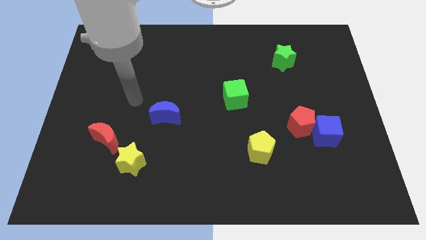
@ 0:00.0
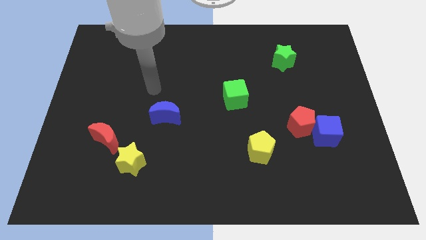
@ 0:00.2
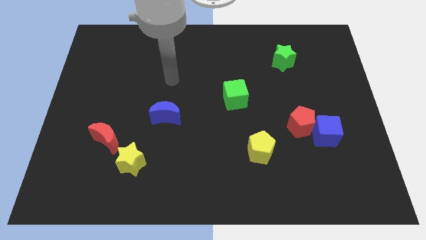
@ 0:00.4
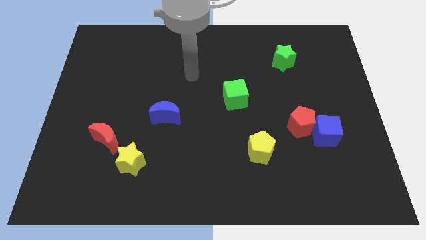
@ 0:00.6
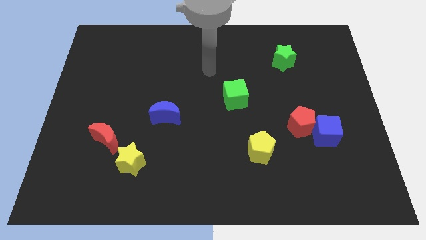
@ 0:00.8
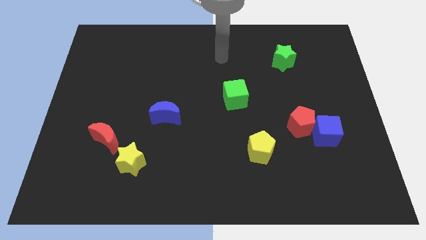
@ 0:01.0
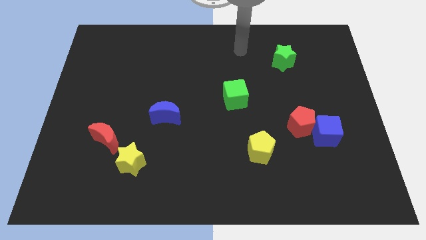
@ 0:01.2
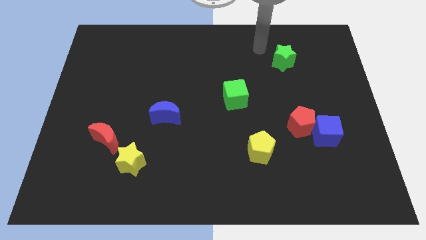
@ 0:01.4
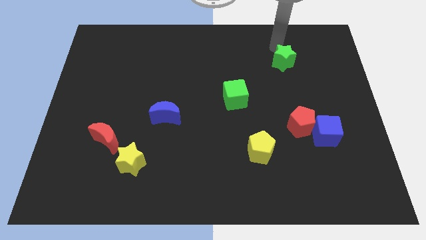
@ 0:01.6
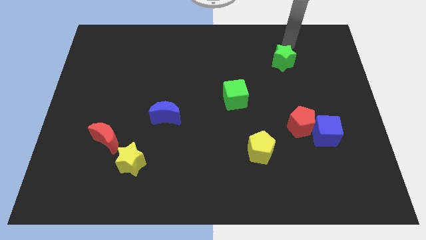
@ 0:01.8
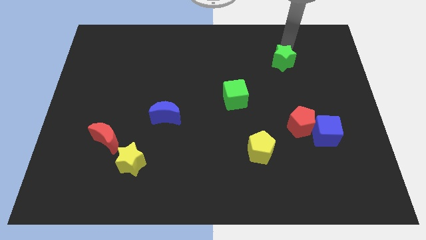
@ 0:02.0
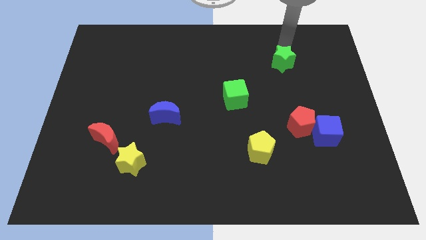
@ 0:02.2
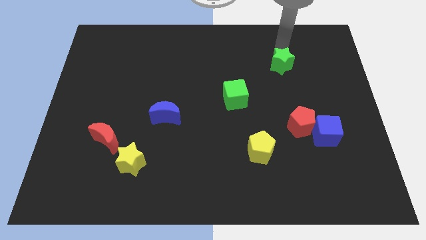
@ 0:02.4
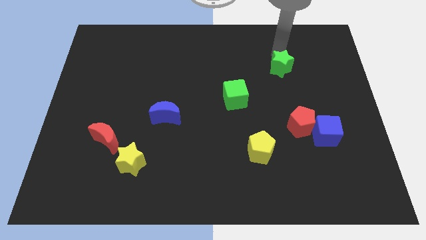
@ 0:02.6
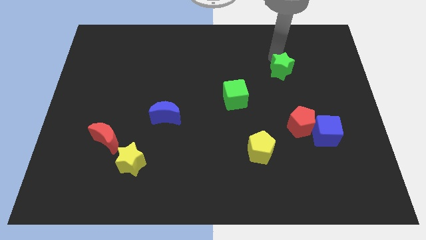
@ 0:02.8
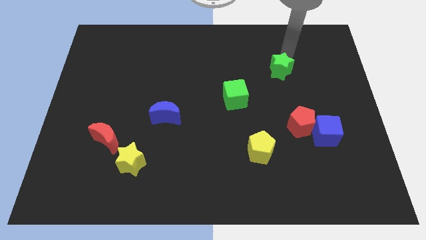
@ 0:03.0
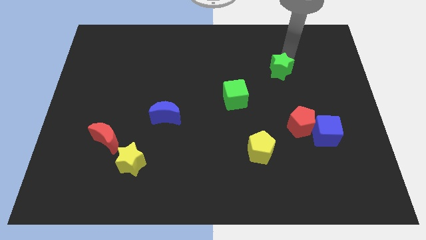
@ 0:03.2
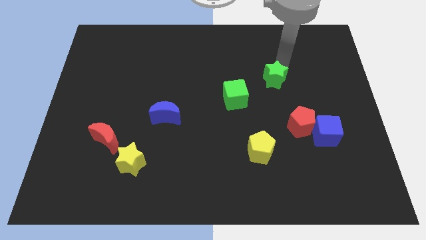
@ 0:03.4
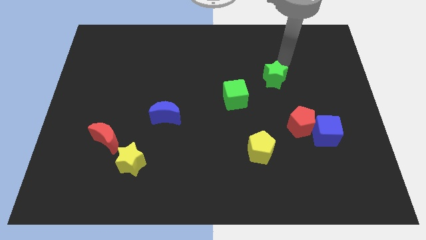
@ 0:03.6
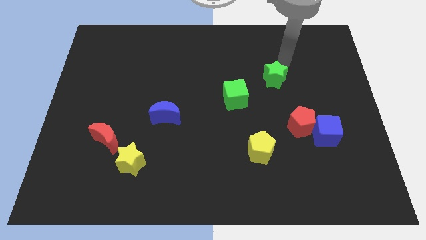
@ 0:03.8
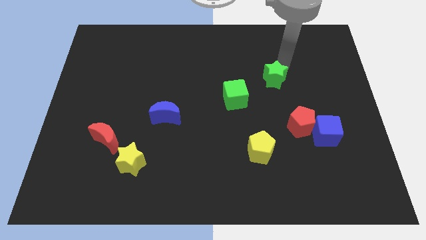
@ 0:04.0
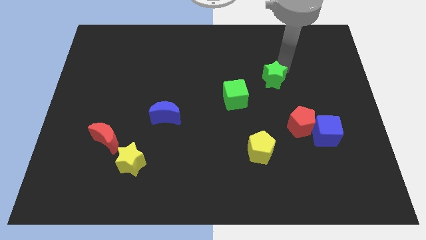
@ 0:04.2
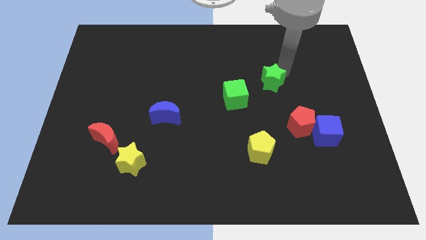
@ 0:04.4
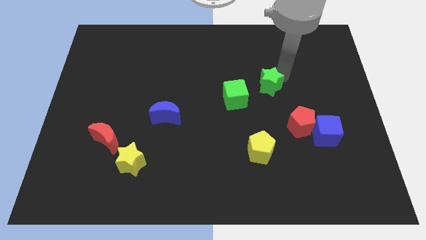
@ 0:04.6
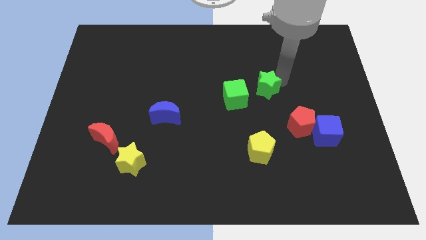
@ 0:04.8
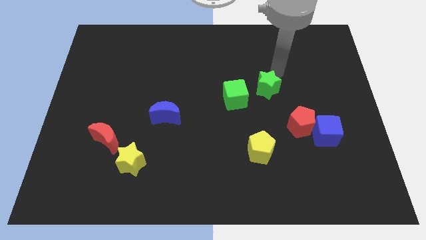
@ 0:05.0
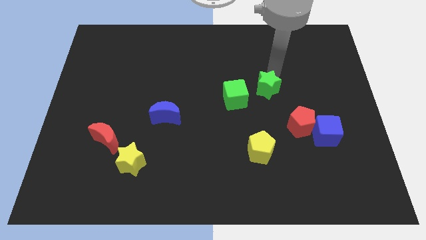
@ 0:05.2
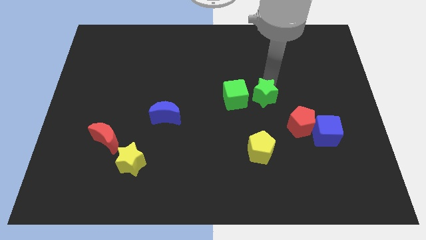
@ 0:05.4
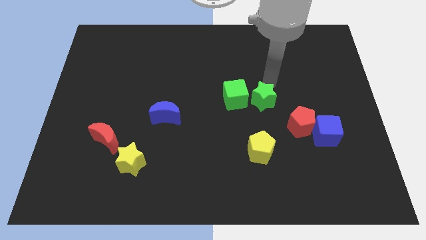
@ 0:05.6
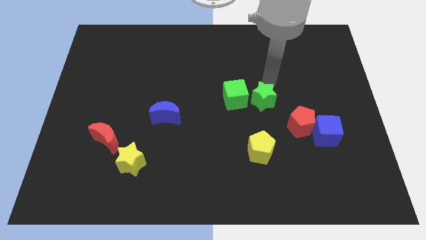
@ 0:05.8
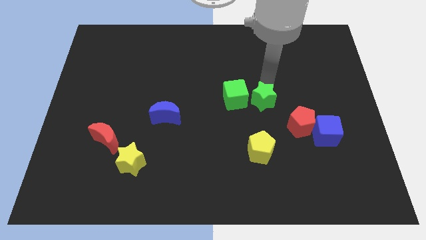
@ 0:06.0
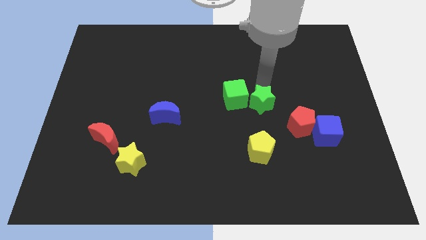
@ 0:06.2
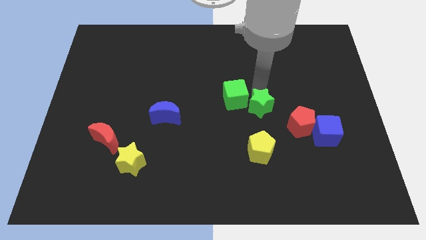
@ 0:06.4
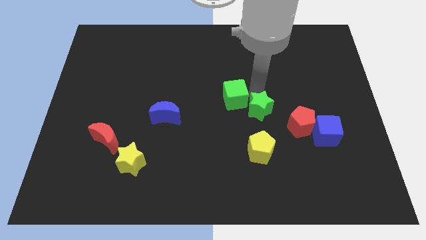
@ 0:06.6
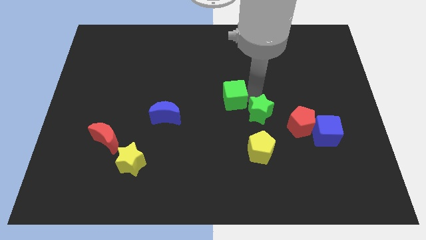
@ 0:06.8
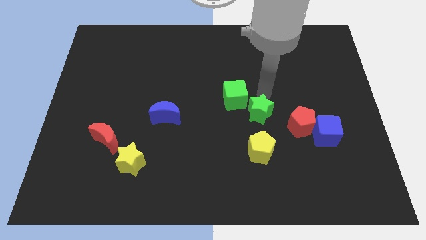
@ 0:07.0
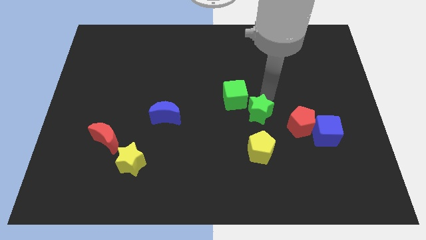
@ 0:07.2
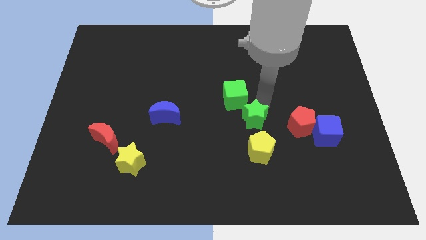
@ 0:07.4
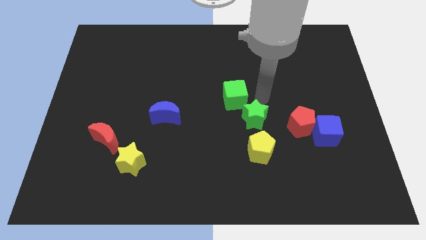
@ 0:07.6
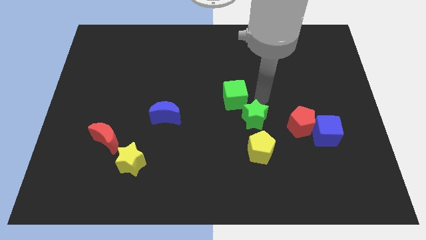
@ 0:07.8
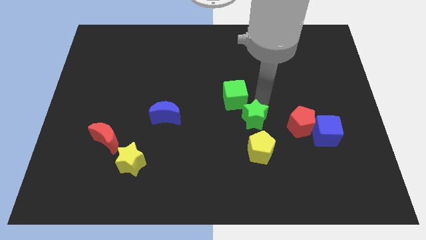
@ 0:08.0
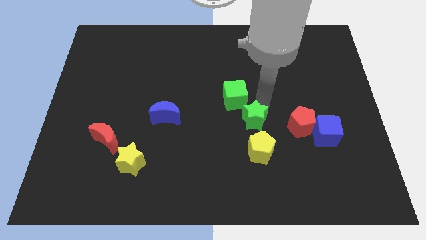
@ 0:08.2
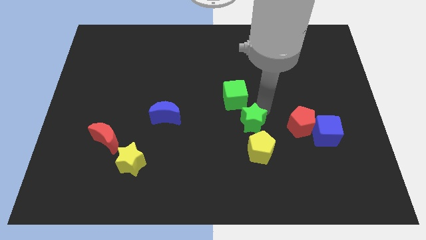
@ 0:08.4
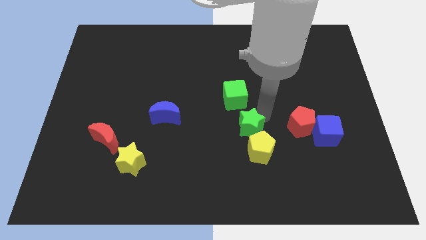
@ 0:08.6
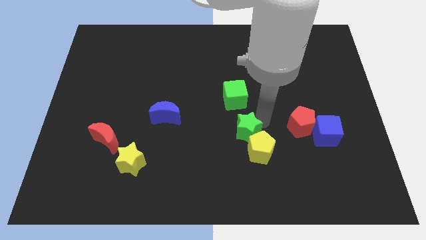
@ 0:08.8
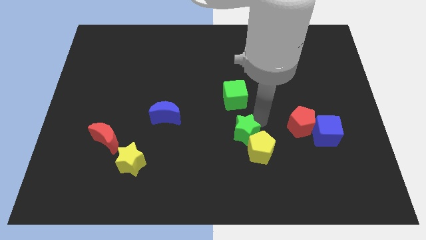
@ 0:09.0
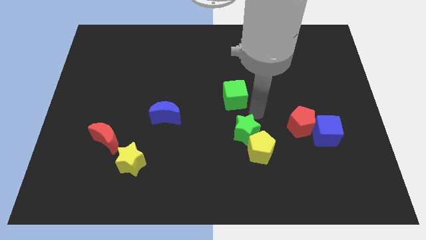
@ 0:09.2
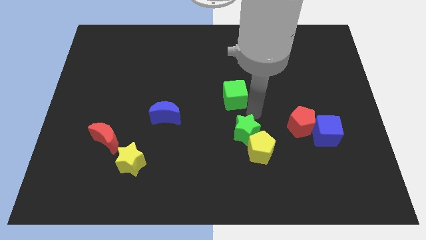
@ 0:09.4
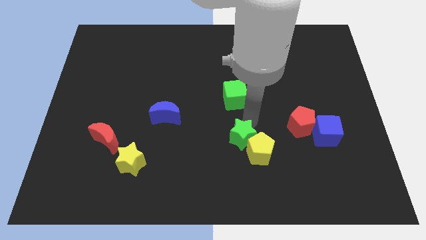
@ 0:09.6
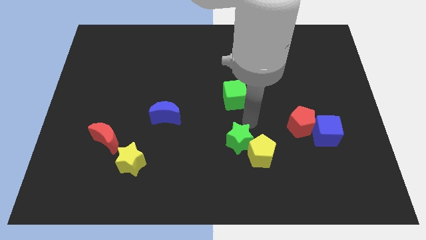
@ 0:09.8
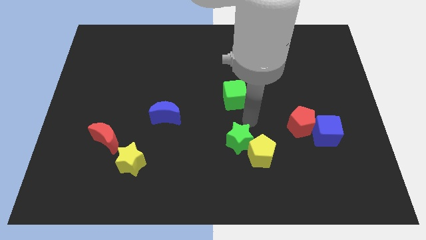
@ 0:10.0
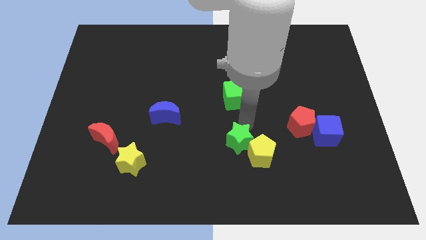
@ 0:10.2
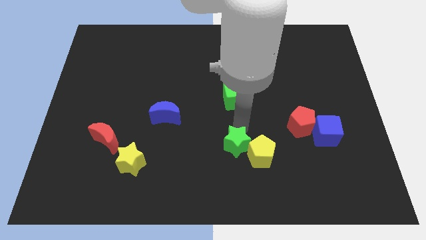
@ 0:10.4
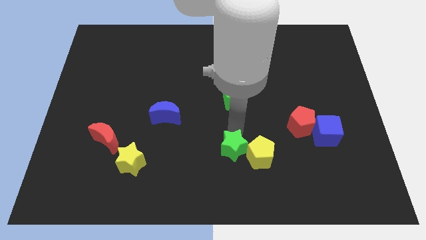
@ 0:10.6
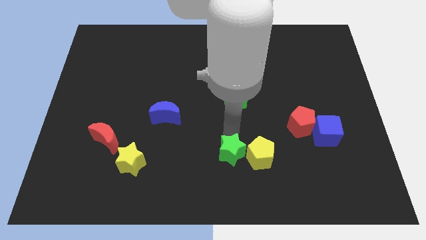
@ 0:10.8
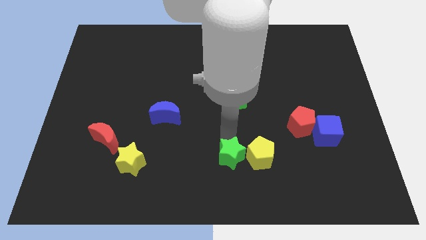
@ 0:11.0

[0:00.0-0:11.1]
slide the green star to the bottom
